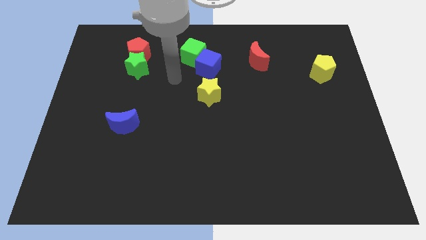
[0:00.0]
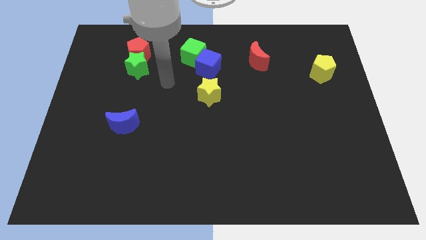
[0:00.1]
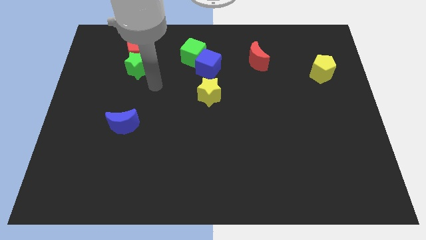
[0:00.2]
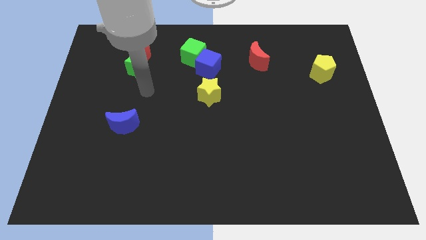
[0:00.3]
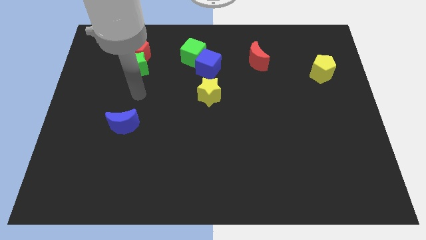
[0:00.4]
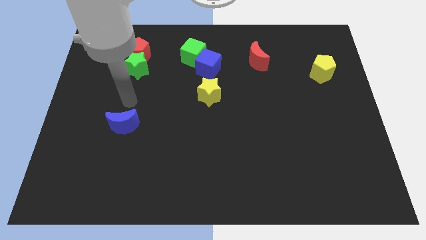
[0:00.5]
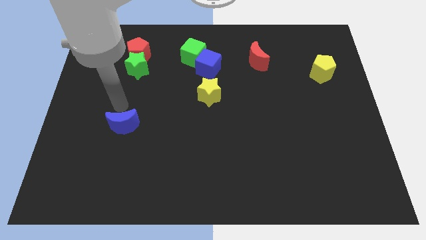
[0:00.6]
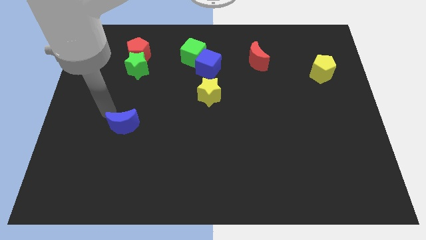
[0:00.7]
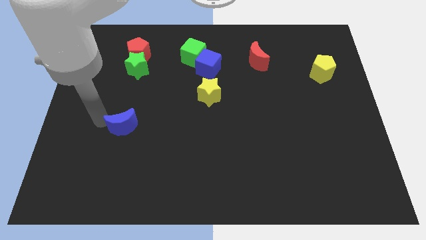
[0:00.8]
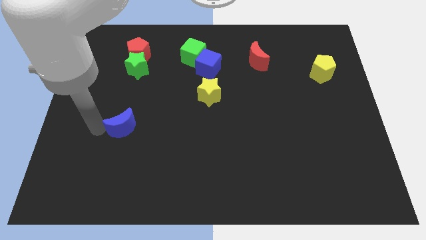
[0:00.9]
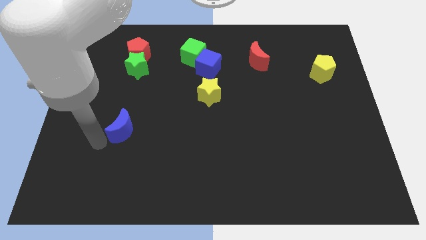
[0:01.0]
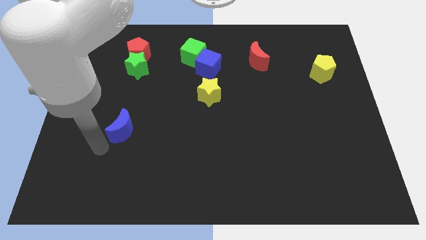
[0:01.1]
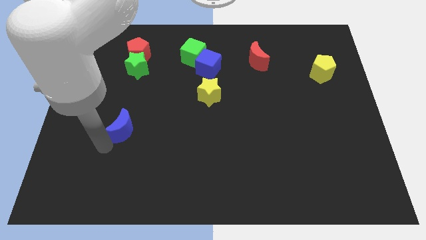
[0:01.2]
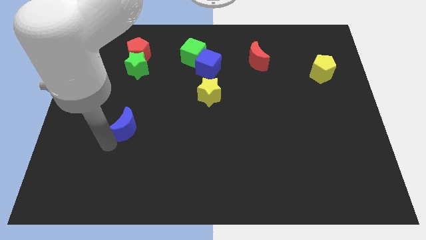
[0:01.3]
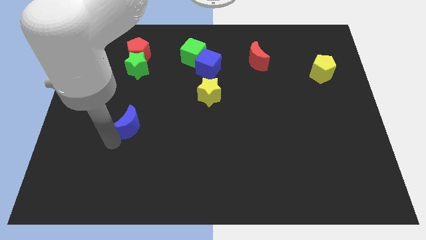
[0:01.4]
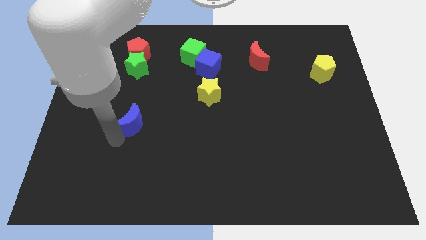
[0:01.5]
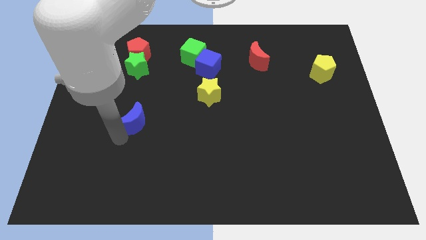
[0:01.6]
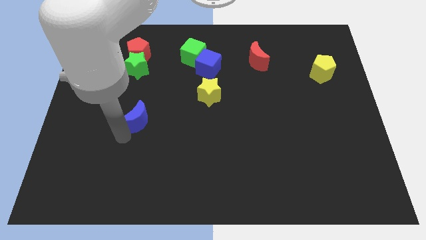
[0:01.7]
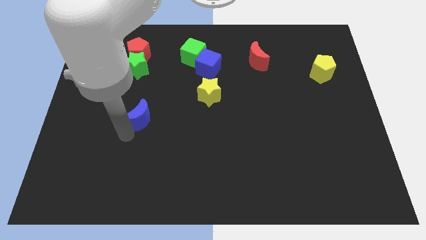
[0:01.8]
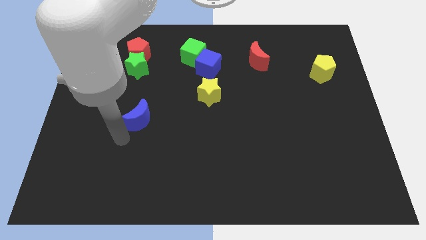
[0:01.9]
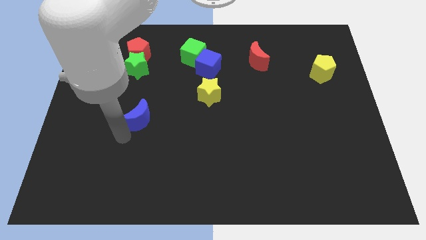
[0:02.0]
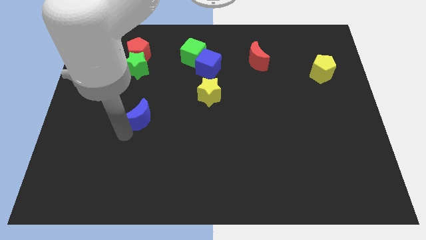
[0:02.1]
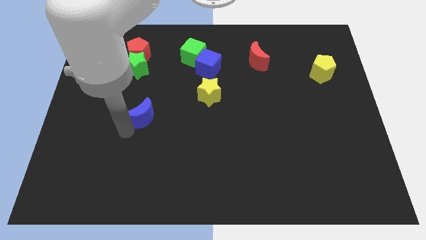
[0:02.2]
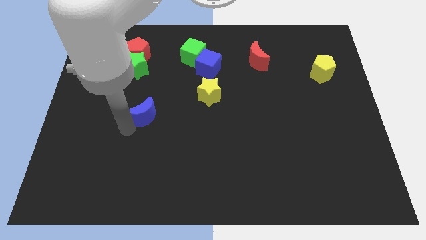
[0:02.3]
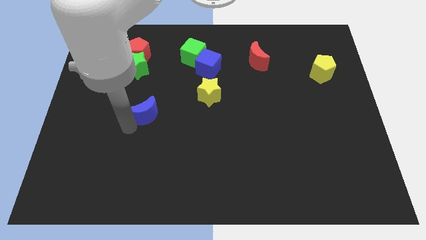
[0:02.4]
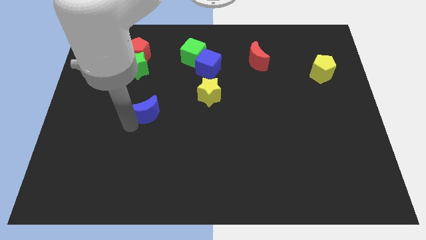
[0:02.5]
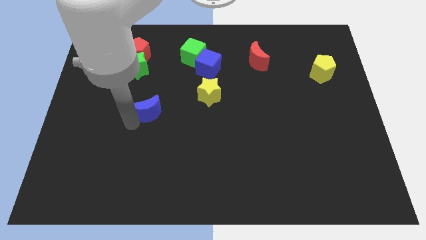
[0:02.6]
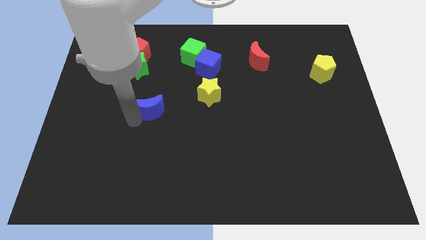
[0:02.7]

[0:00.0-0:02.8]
push the blue moon upwards and to the right a little bit

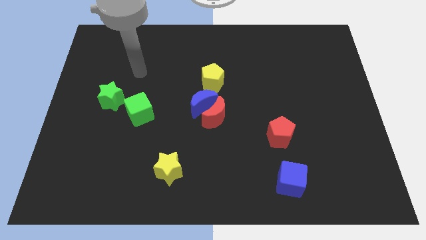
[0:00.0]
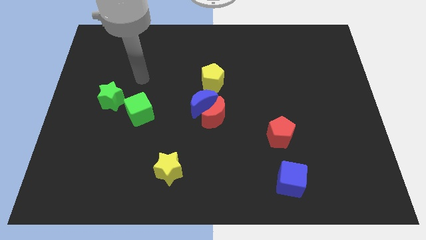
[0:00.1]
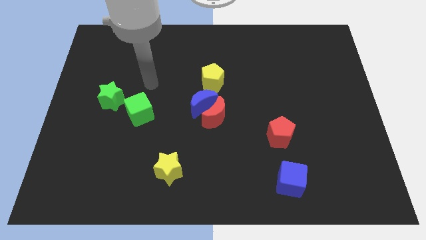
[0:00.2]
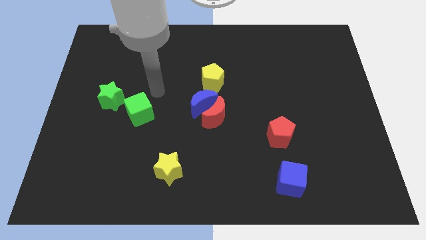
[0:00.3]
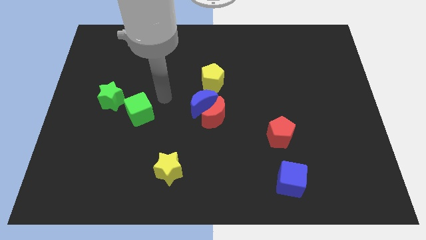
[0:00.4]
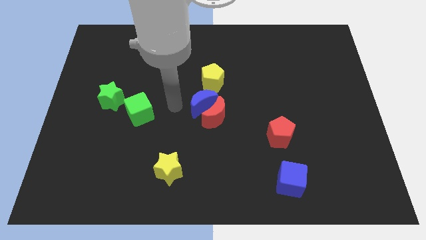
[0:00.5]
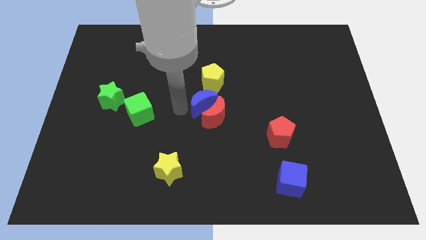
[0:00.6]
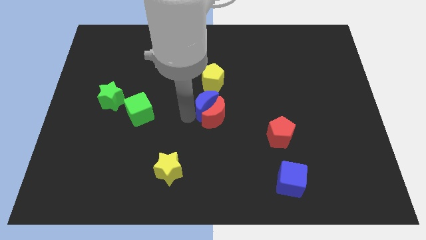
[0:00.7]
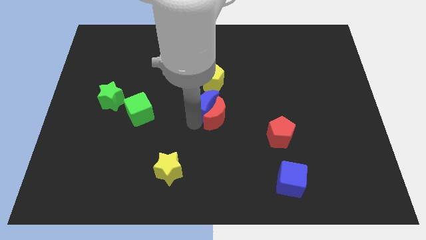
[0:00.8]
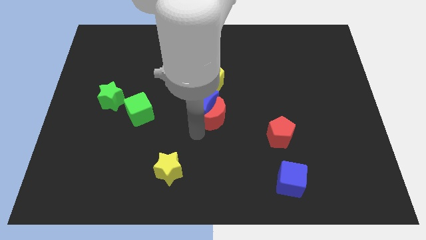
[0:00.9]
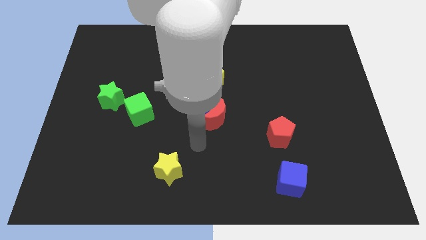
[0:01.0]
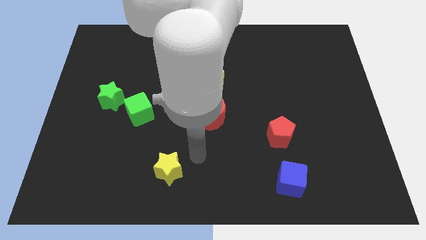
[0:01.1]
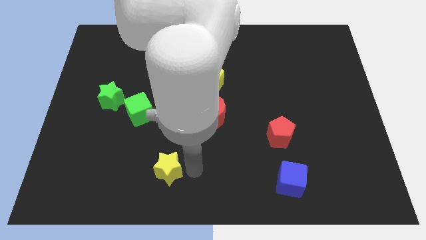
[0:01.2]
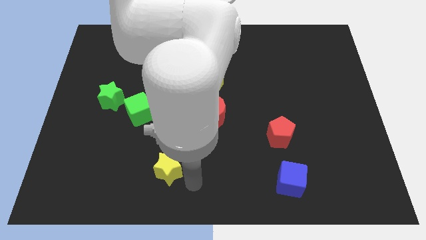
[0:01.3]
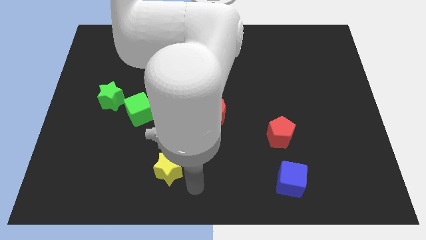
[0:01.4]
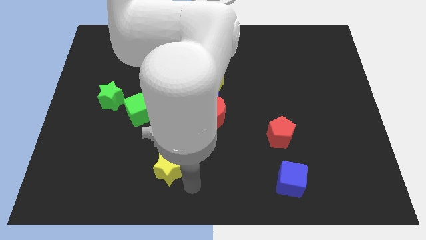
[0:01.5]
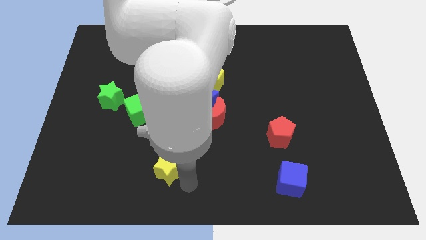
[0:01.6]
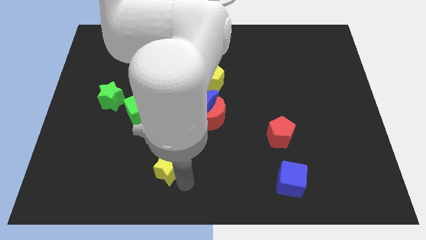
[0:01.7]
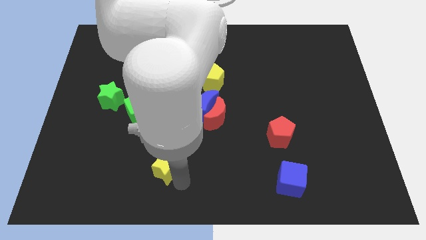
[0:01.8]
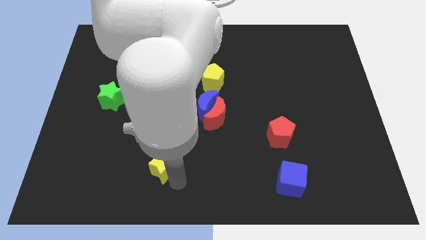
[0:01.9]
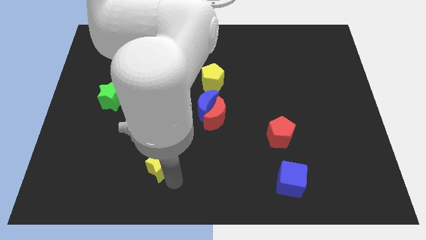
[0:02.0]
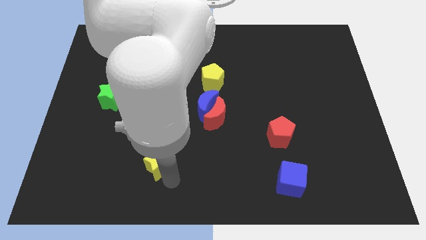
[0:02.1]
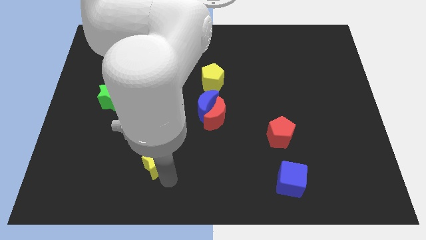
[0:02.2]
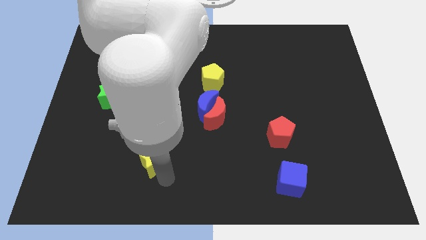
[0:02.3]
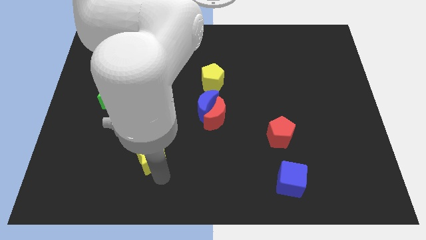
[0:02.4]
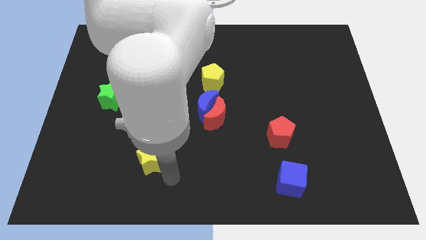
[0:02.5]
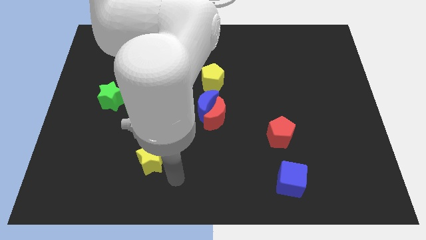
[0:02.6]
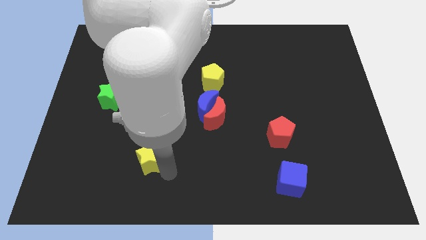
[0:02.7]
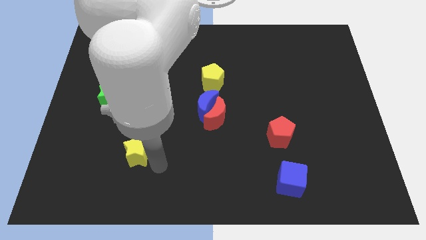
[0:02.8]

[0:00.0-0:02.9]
slightly push the yellow star upwards and then to the left

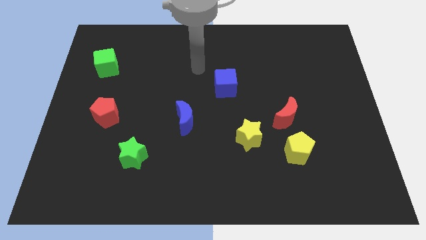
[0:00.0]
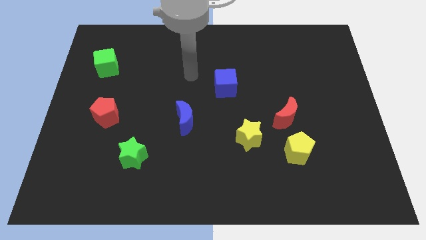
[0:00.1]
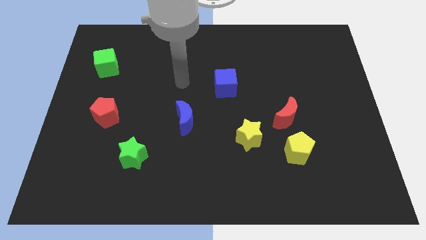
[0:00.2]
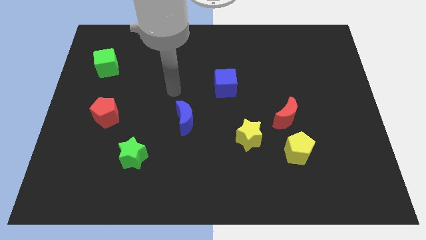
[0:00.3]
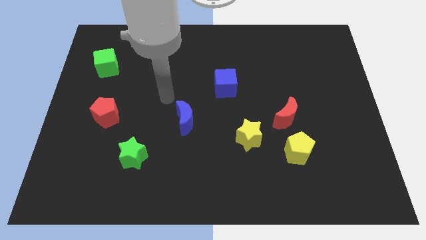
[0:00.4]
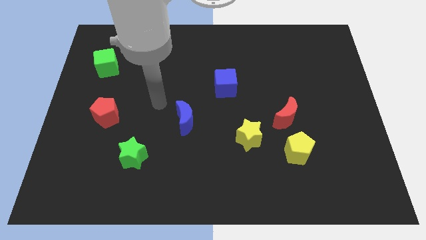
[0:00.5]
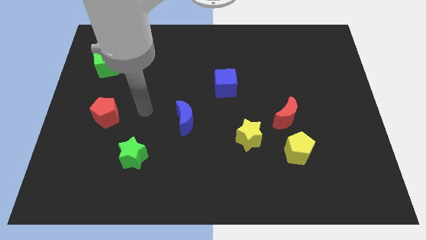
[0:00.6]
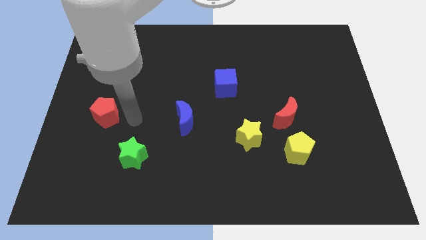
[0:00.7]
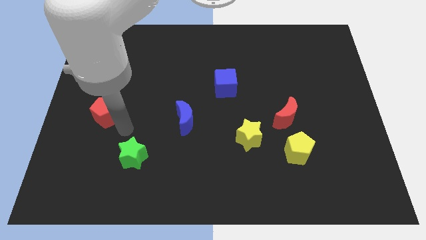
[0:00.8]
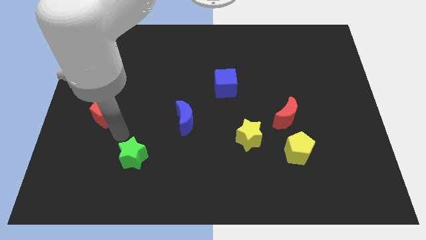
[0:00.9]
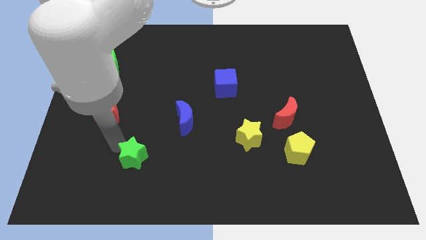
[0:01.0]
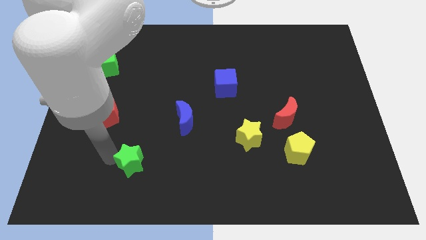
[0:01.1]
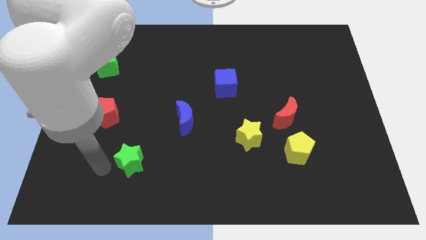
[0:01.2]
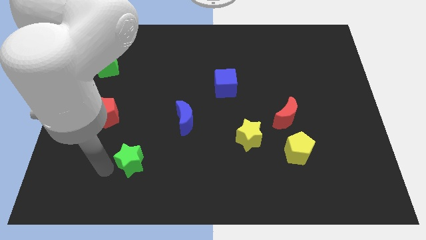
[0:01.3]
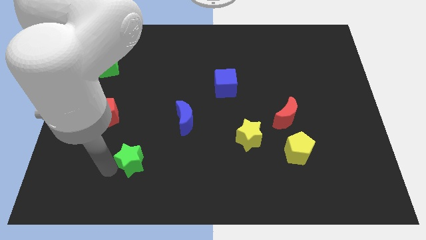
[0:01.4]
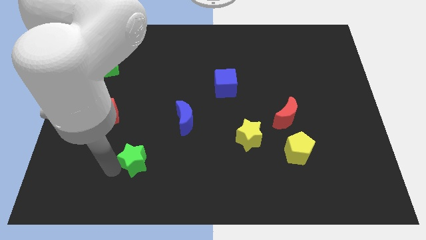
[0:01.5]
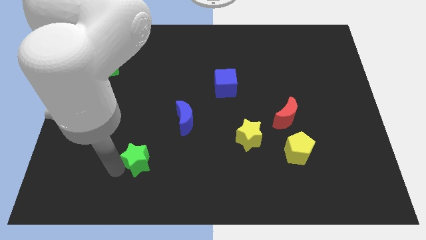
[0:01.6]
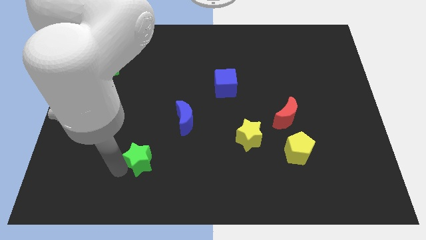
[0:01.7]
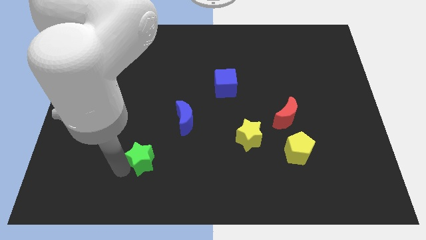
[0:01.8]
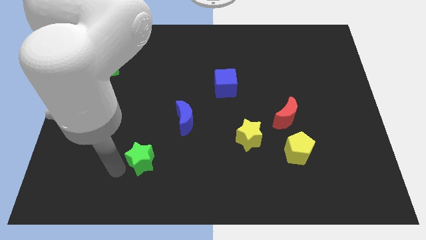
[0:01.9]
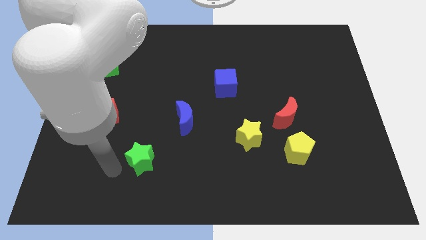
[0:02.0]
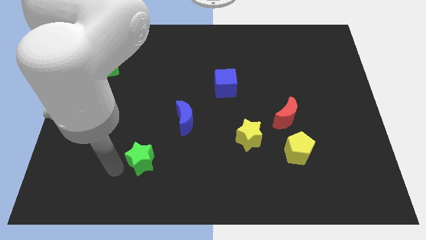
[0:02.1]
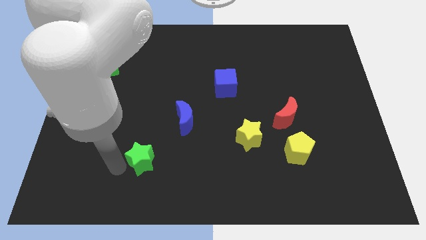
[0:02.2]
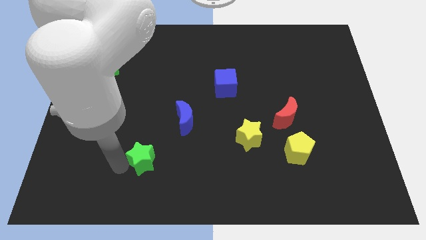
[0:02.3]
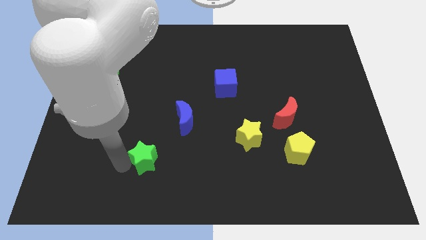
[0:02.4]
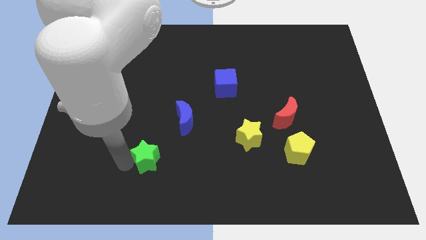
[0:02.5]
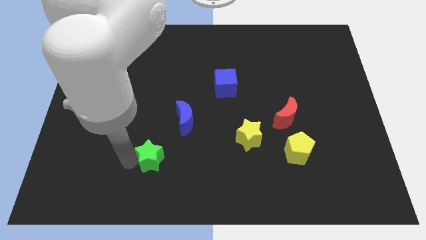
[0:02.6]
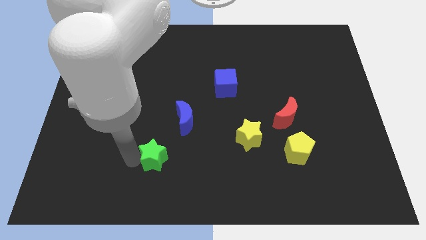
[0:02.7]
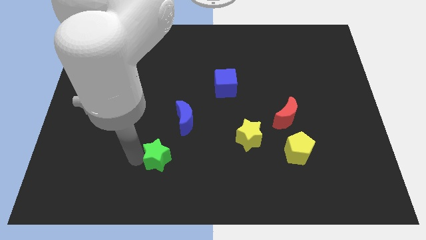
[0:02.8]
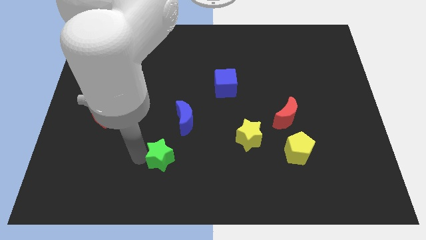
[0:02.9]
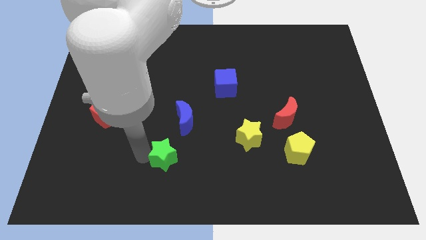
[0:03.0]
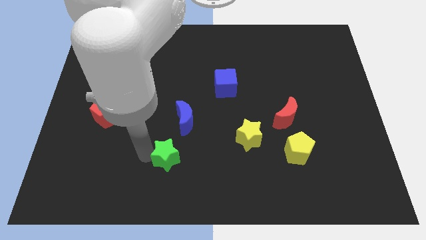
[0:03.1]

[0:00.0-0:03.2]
slide the green star right slightly
